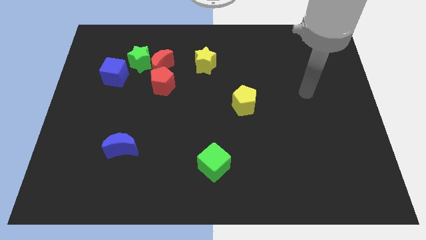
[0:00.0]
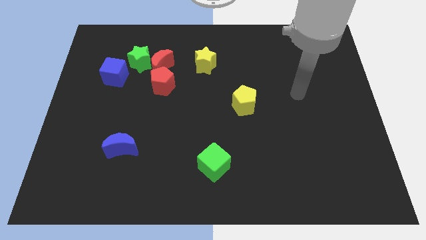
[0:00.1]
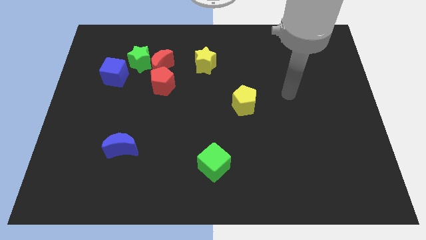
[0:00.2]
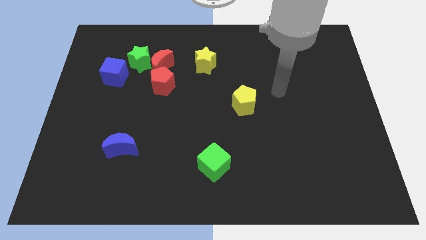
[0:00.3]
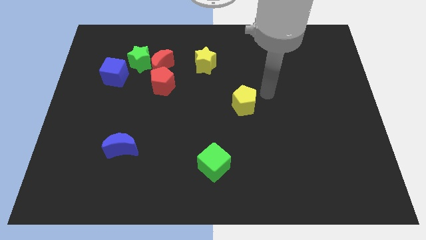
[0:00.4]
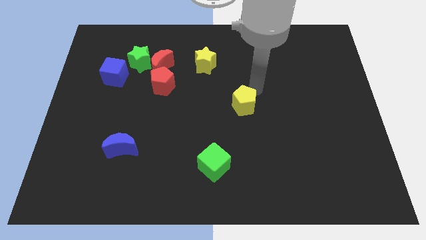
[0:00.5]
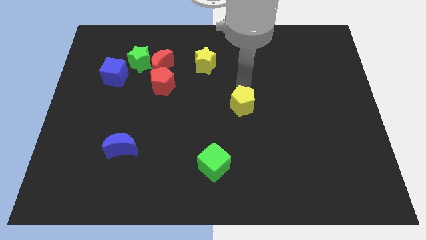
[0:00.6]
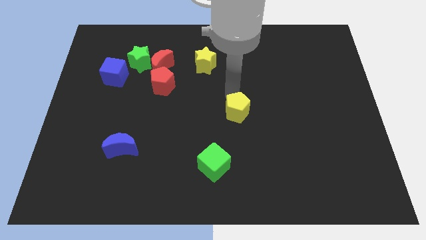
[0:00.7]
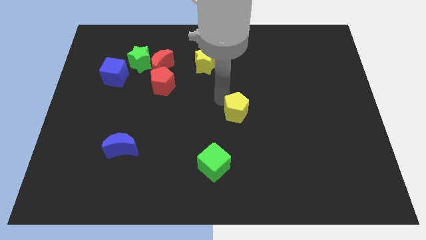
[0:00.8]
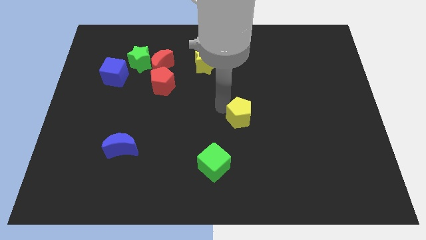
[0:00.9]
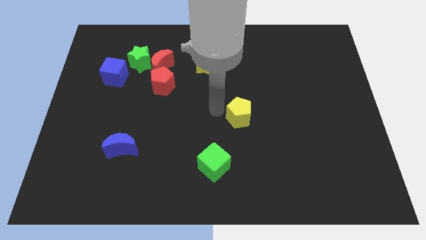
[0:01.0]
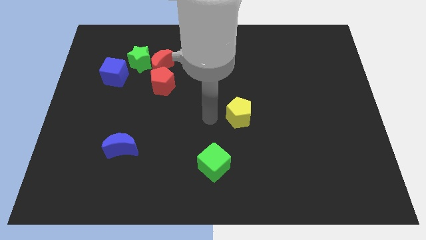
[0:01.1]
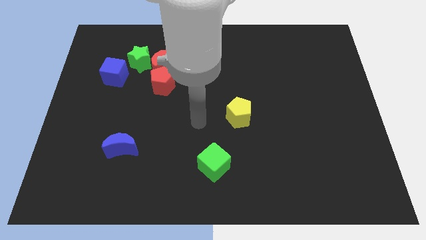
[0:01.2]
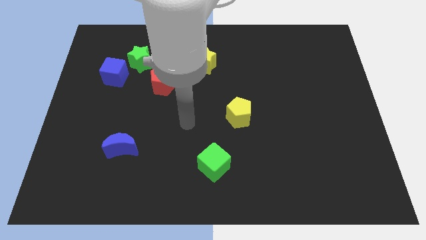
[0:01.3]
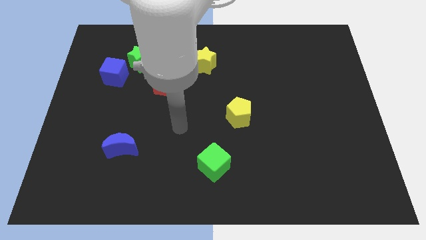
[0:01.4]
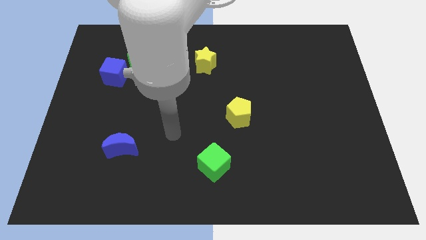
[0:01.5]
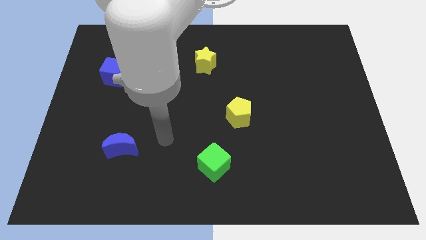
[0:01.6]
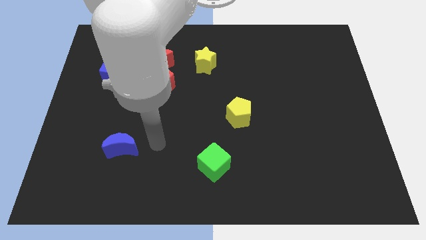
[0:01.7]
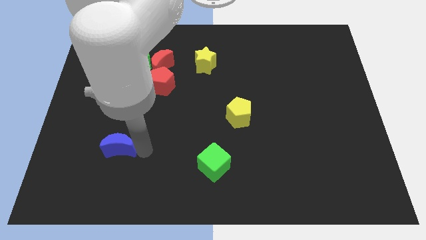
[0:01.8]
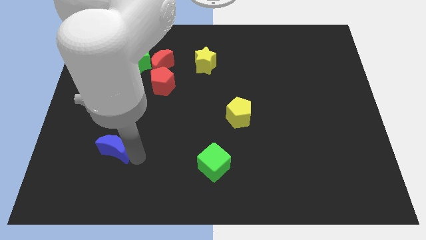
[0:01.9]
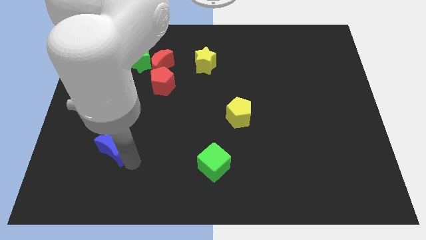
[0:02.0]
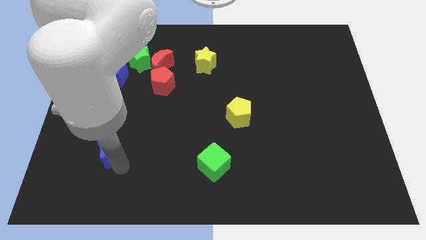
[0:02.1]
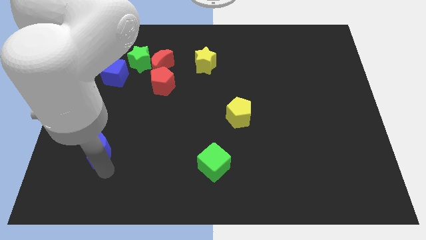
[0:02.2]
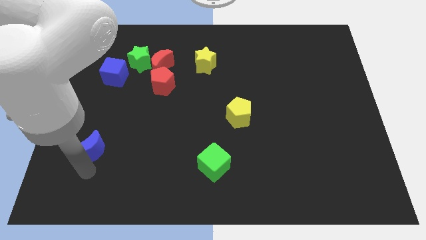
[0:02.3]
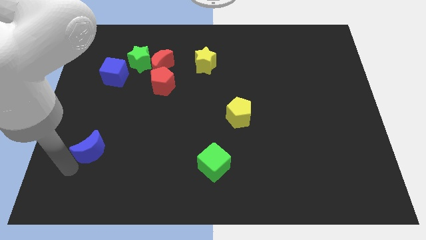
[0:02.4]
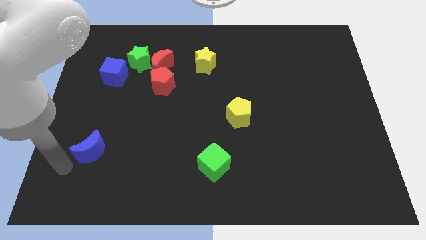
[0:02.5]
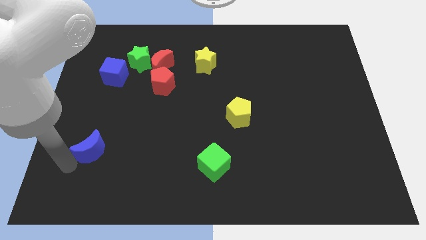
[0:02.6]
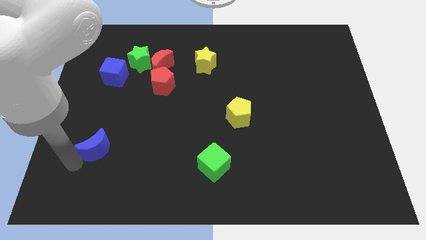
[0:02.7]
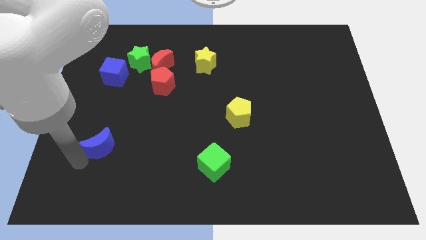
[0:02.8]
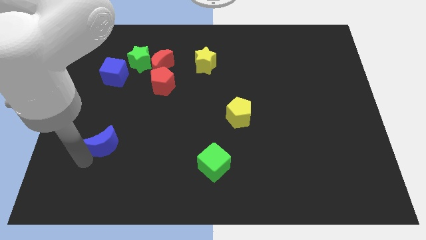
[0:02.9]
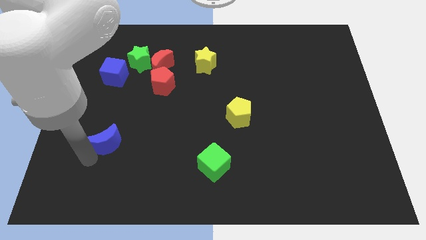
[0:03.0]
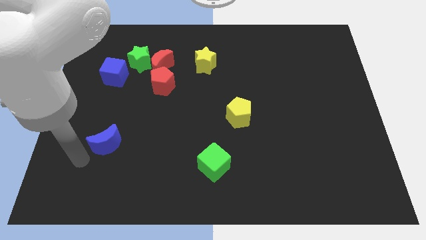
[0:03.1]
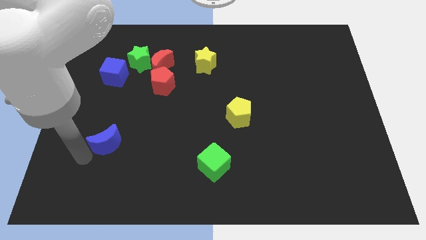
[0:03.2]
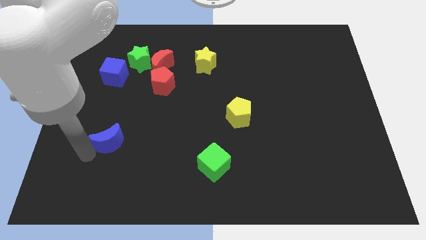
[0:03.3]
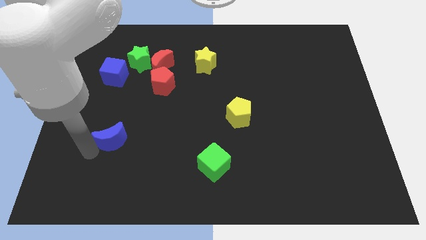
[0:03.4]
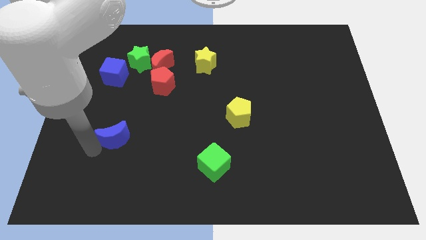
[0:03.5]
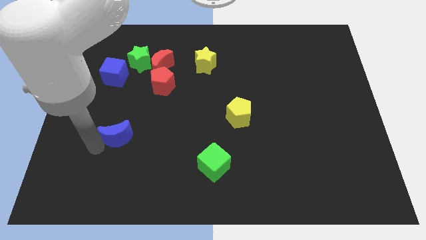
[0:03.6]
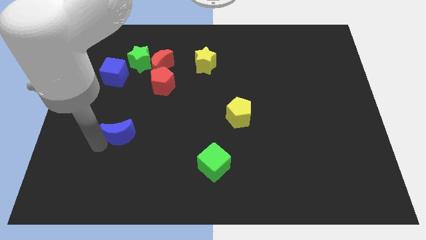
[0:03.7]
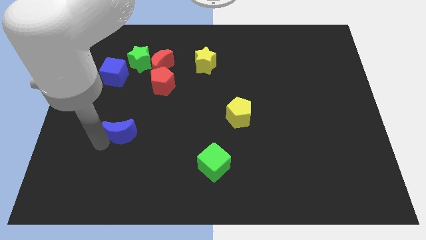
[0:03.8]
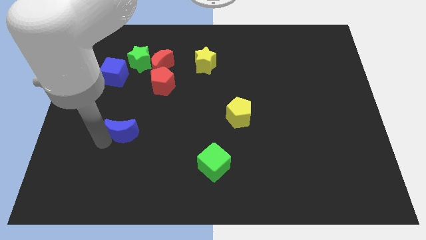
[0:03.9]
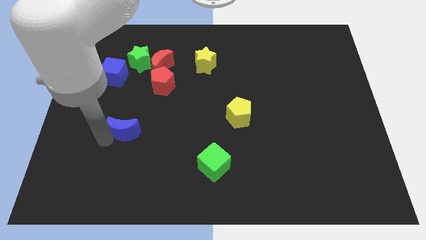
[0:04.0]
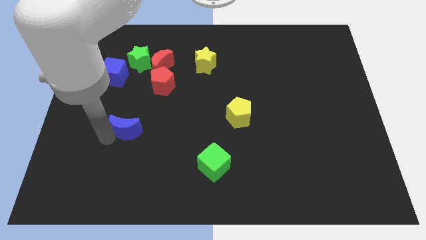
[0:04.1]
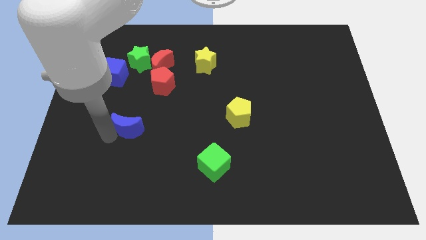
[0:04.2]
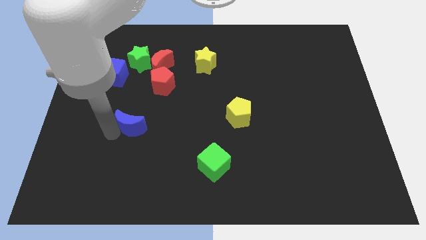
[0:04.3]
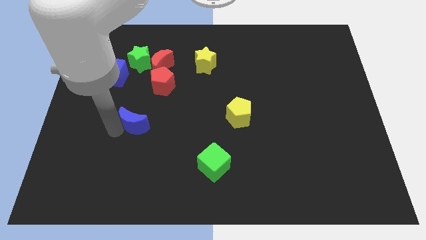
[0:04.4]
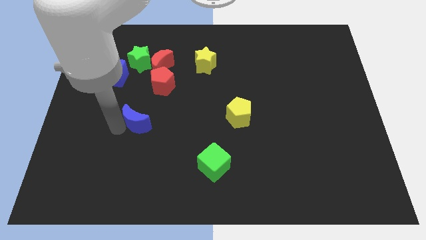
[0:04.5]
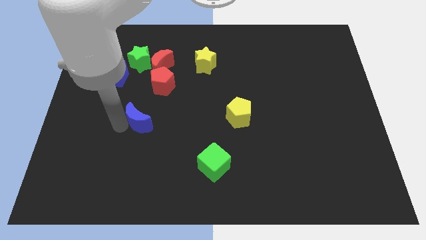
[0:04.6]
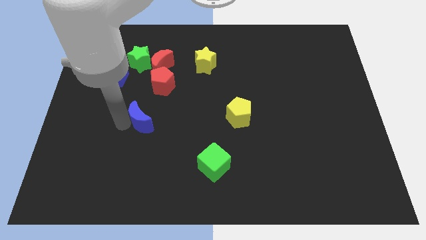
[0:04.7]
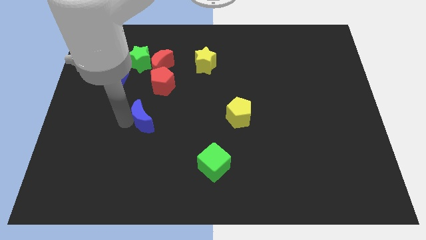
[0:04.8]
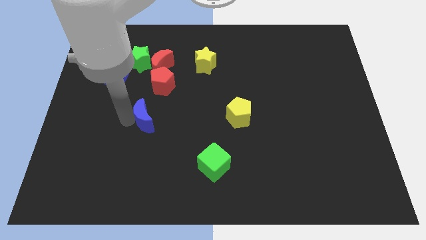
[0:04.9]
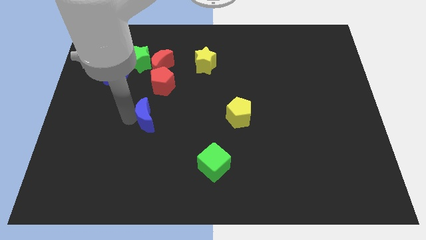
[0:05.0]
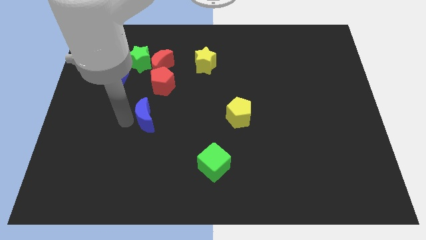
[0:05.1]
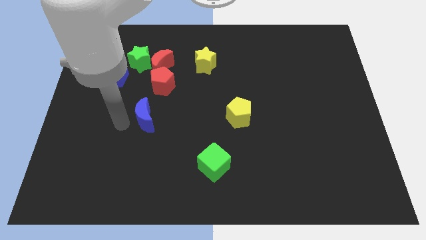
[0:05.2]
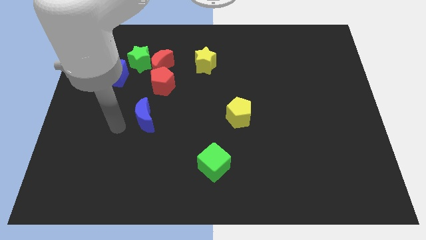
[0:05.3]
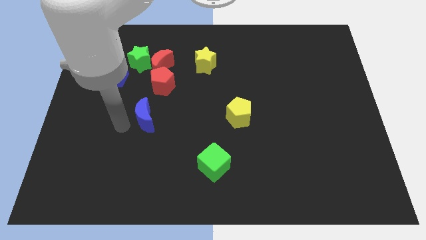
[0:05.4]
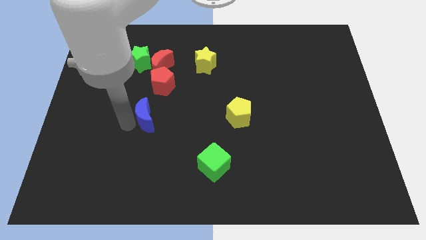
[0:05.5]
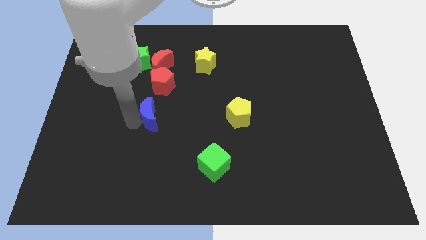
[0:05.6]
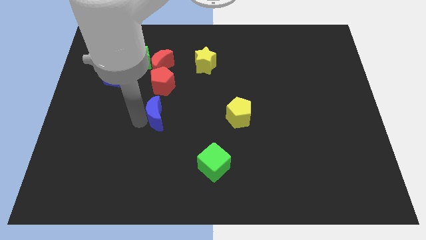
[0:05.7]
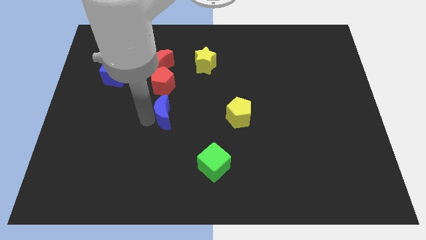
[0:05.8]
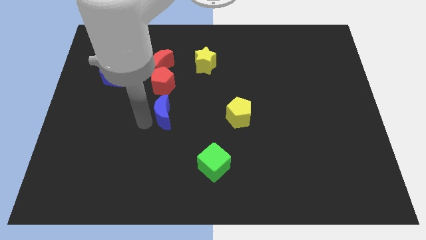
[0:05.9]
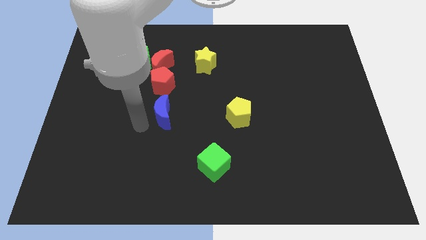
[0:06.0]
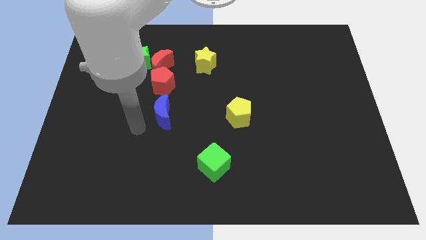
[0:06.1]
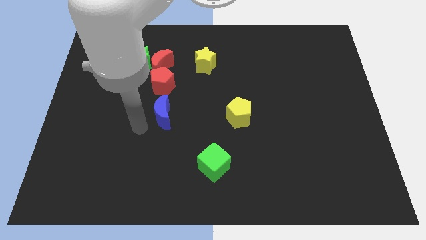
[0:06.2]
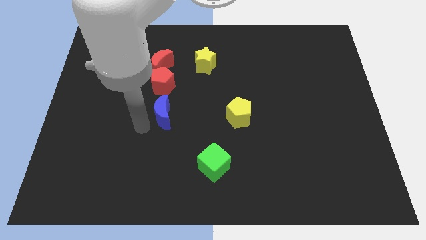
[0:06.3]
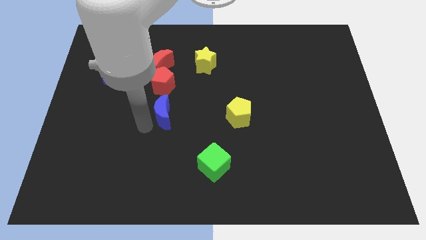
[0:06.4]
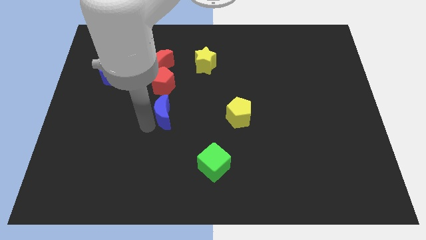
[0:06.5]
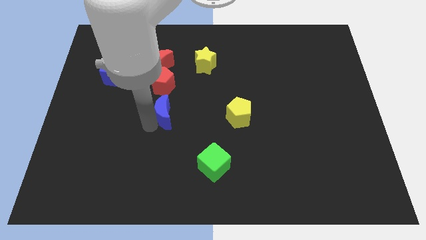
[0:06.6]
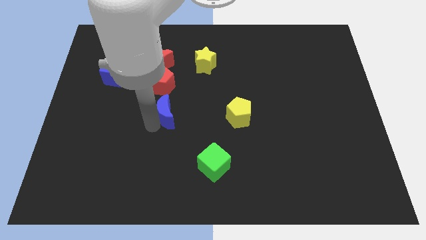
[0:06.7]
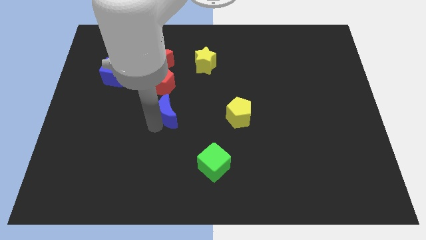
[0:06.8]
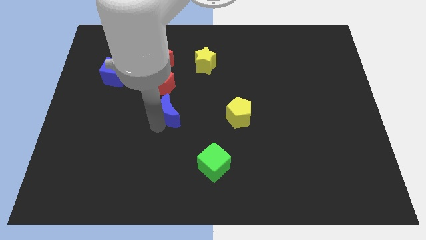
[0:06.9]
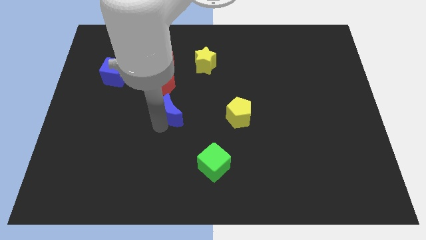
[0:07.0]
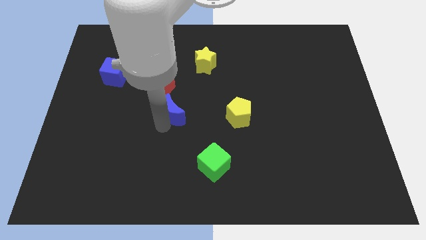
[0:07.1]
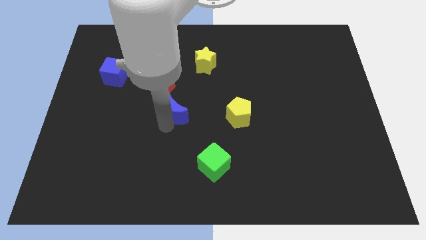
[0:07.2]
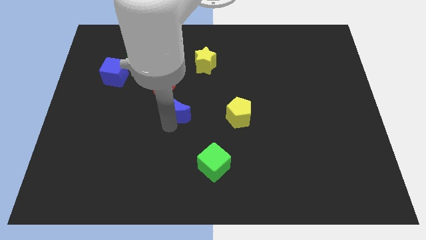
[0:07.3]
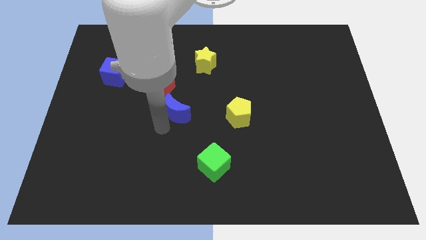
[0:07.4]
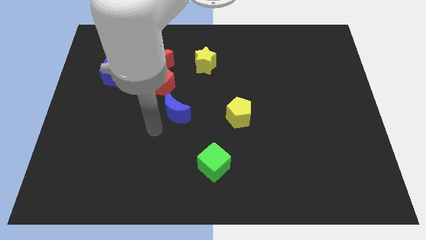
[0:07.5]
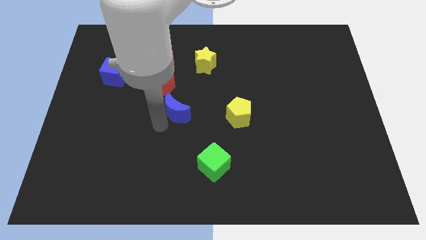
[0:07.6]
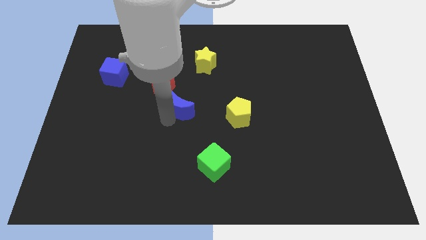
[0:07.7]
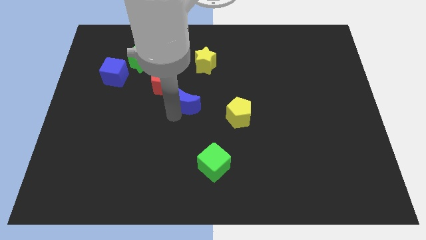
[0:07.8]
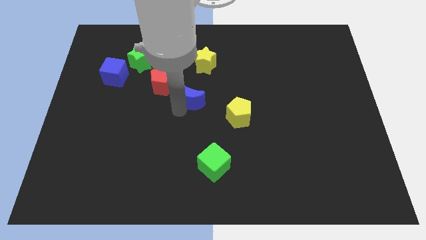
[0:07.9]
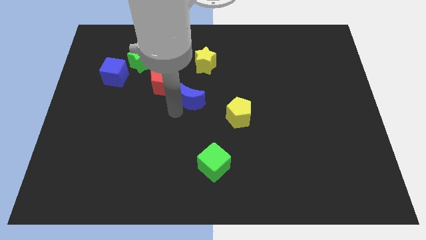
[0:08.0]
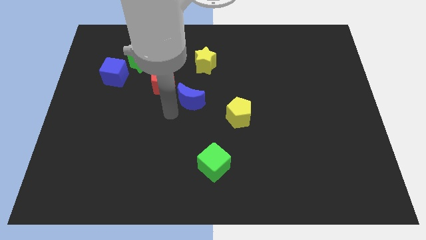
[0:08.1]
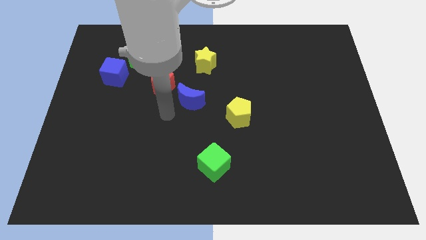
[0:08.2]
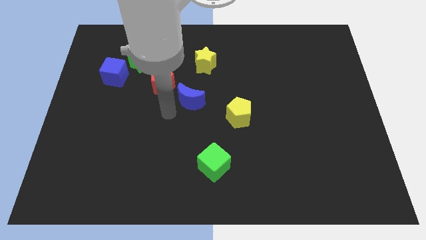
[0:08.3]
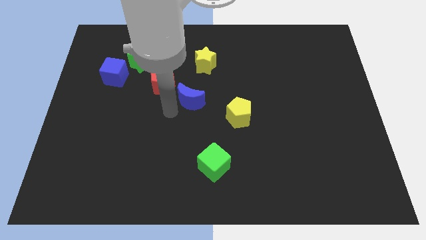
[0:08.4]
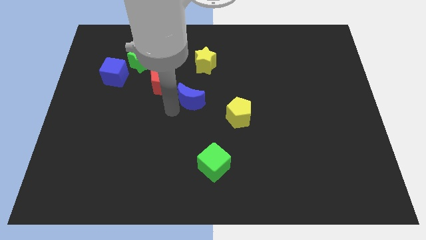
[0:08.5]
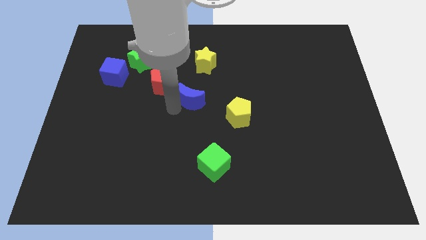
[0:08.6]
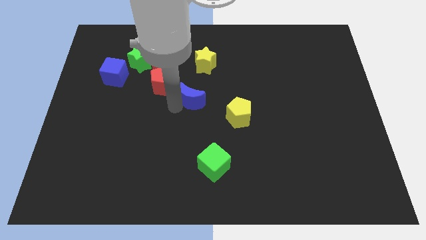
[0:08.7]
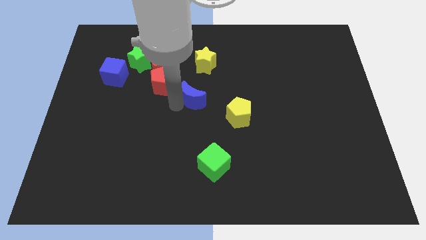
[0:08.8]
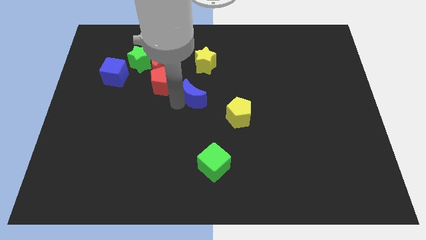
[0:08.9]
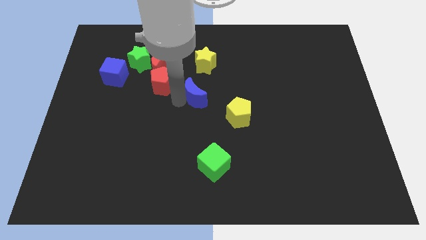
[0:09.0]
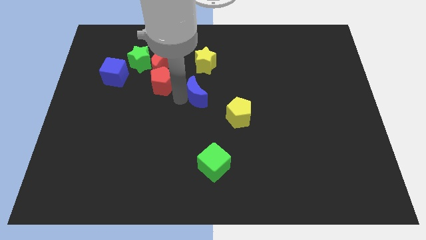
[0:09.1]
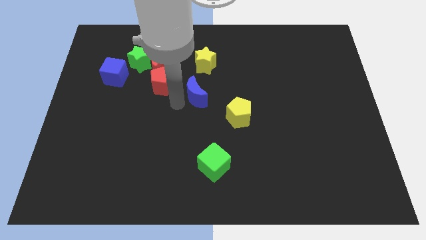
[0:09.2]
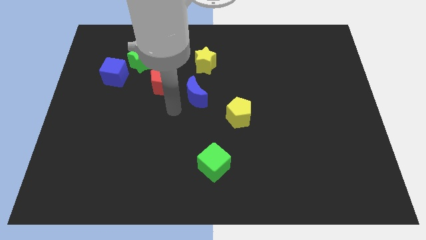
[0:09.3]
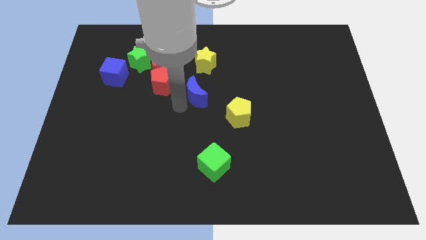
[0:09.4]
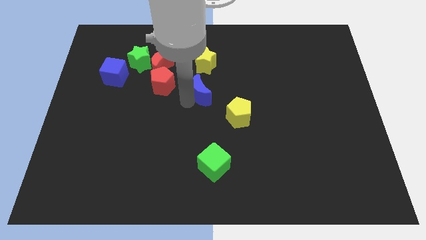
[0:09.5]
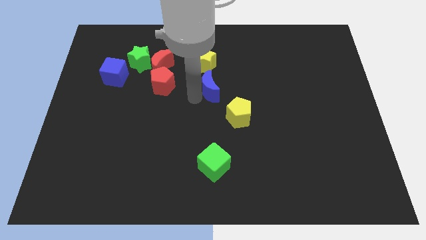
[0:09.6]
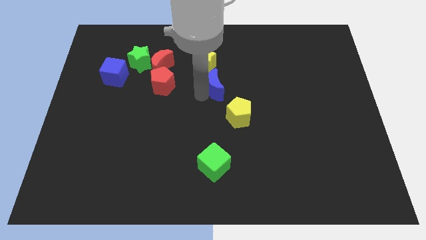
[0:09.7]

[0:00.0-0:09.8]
move the blue moon to the bottom right side of the yellow star
